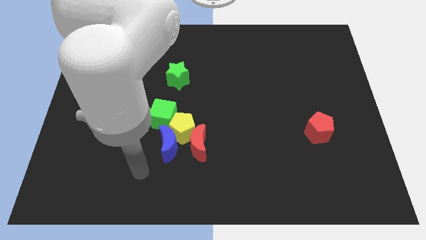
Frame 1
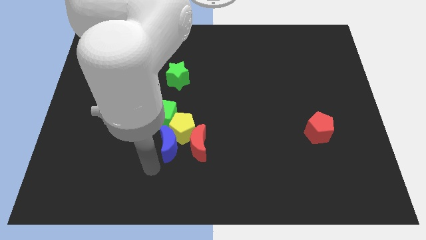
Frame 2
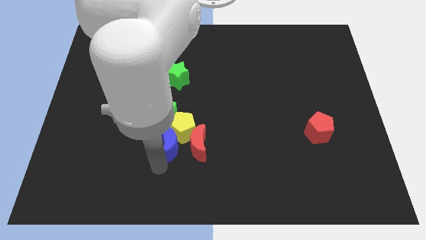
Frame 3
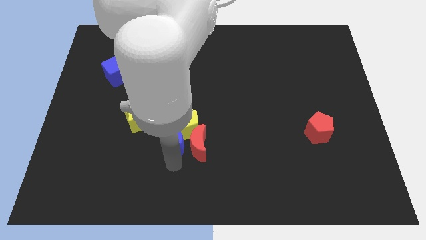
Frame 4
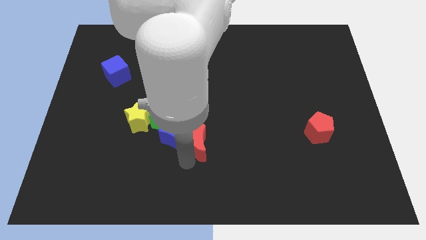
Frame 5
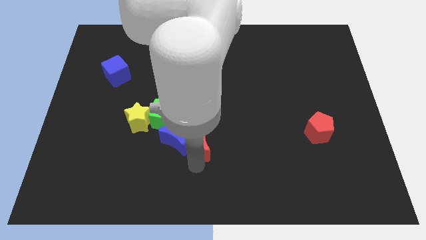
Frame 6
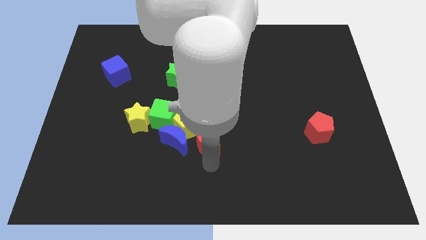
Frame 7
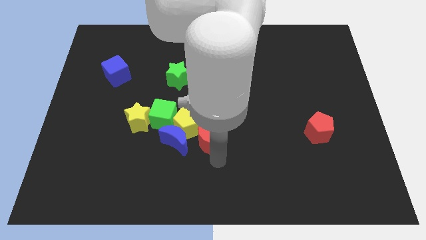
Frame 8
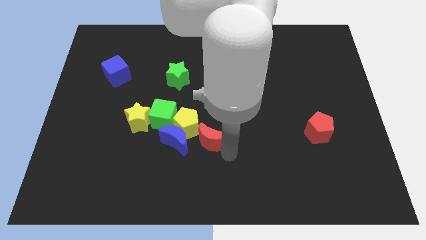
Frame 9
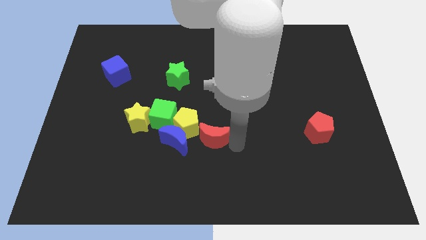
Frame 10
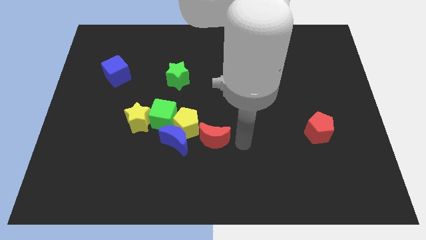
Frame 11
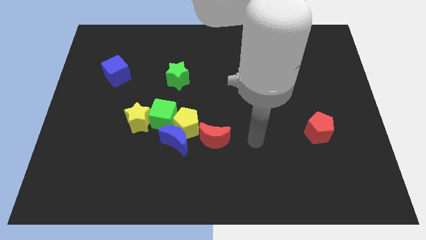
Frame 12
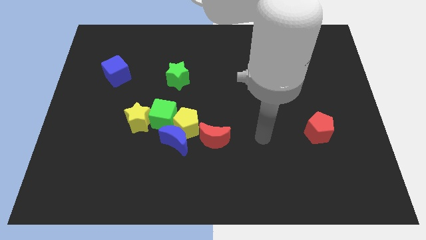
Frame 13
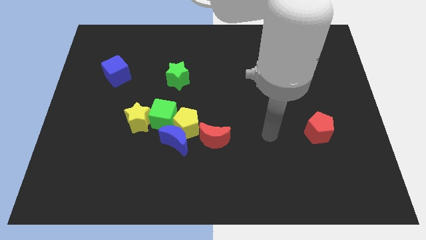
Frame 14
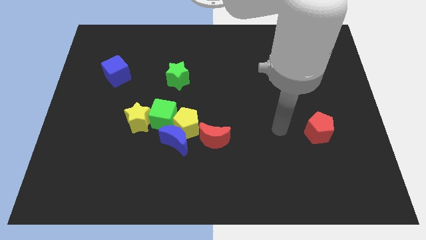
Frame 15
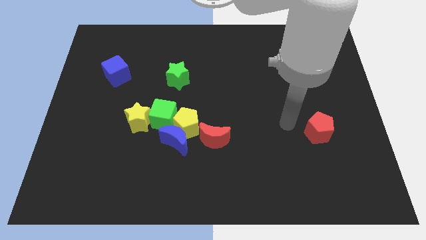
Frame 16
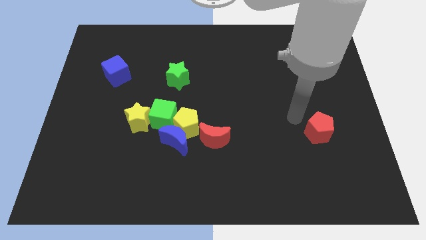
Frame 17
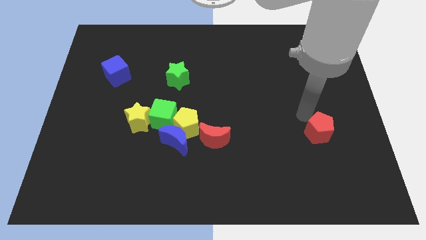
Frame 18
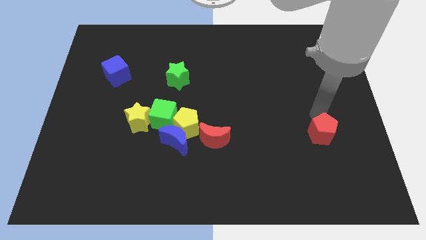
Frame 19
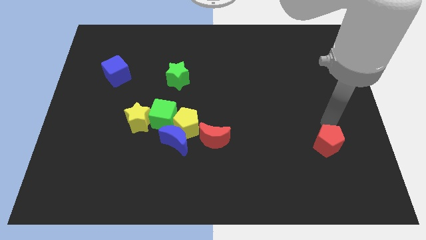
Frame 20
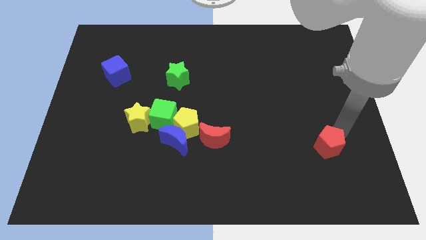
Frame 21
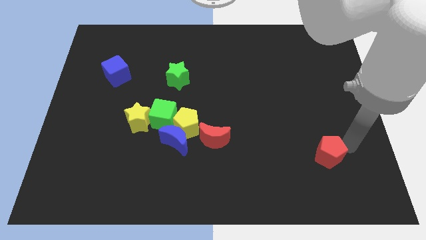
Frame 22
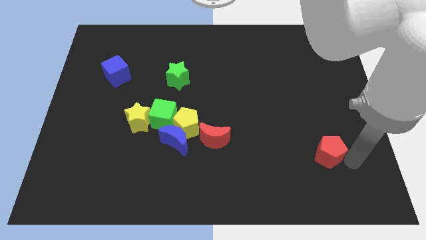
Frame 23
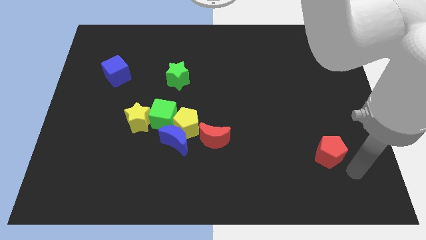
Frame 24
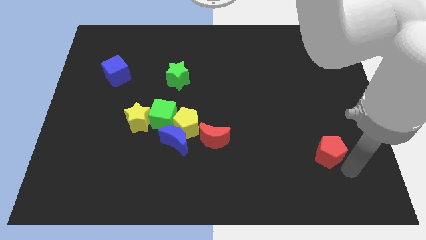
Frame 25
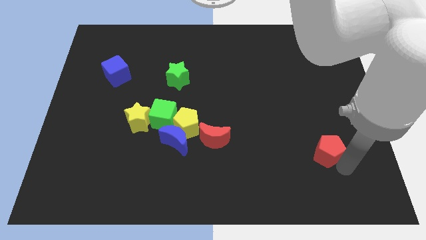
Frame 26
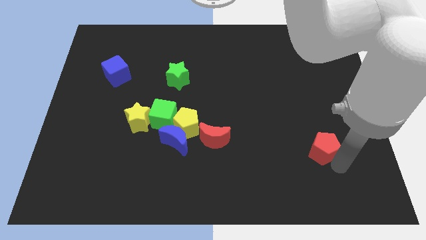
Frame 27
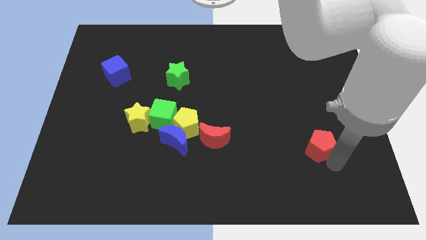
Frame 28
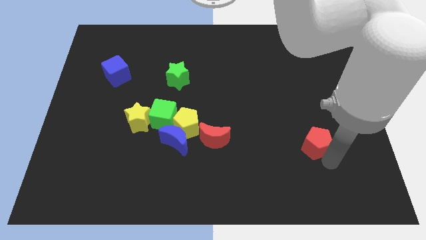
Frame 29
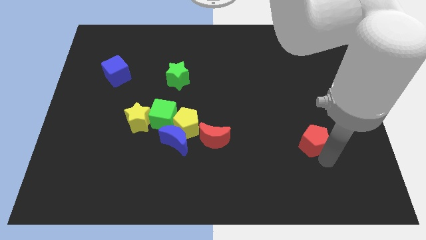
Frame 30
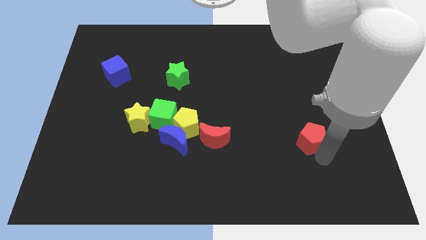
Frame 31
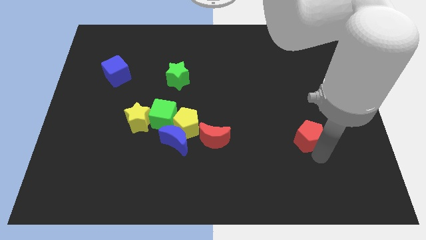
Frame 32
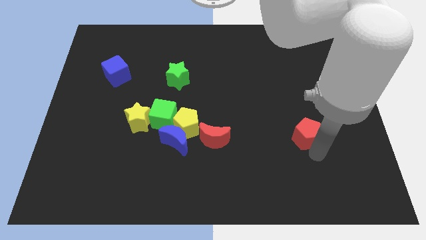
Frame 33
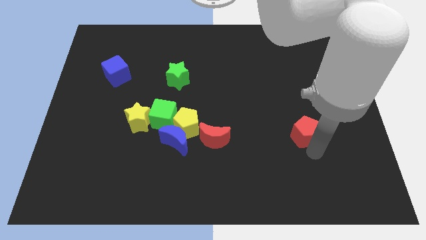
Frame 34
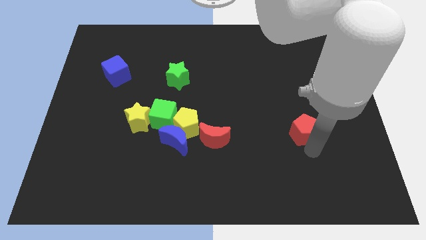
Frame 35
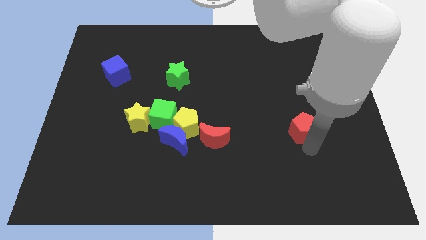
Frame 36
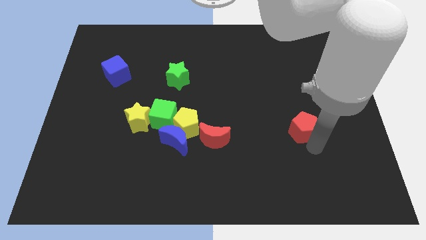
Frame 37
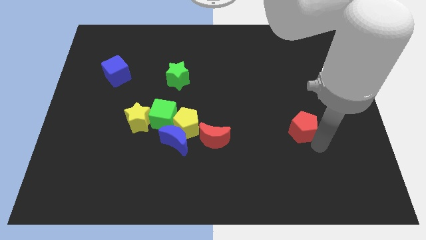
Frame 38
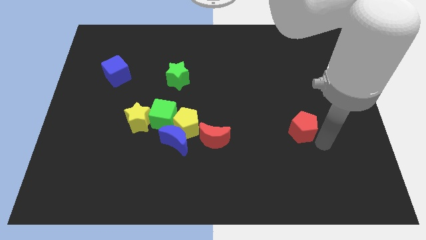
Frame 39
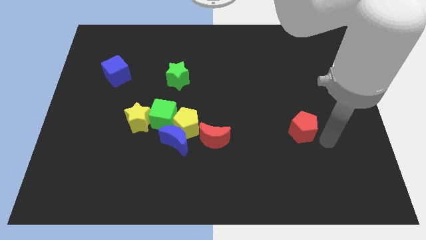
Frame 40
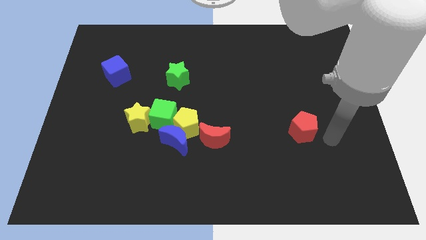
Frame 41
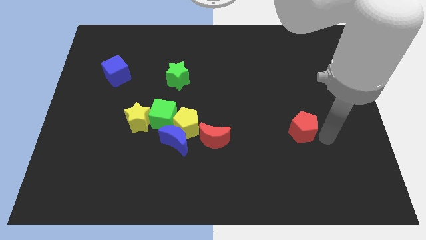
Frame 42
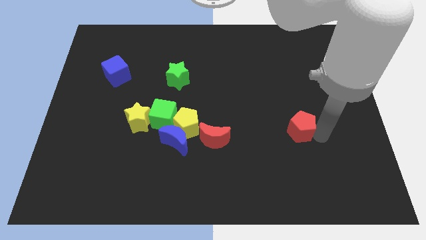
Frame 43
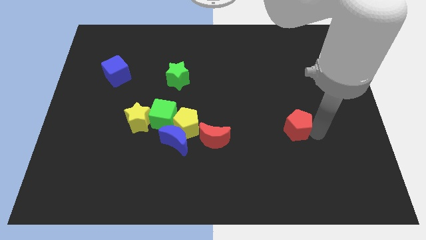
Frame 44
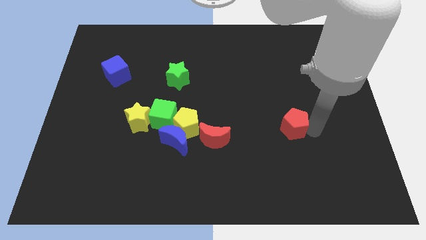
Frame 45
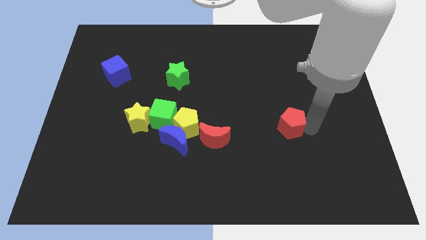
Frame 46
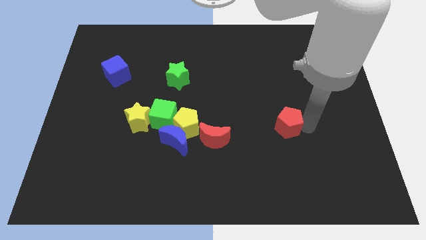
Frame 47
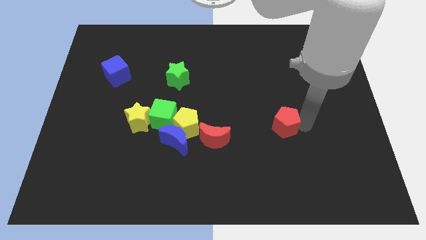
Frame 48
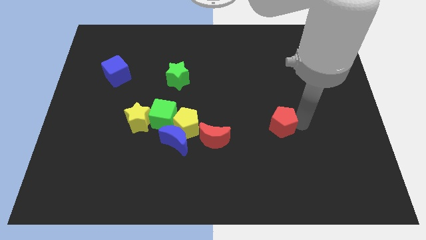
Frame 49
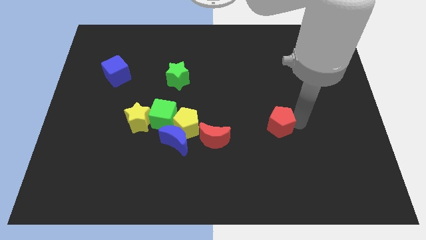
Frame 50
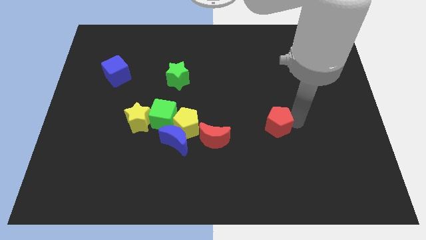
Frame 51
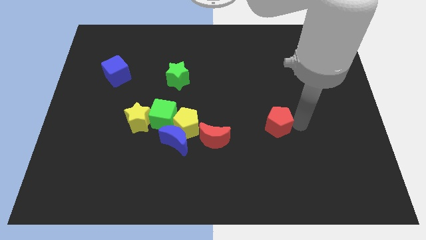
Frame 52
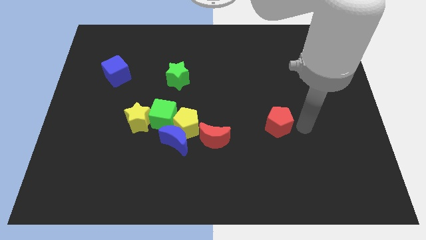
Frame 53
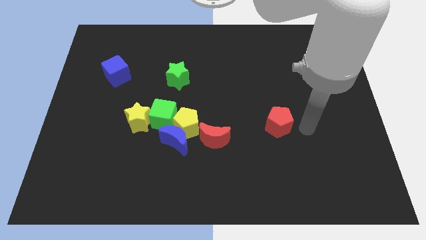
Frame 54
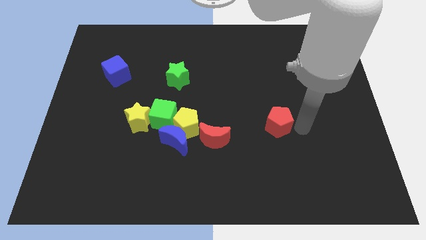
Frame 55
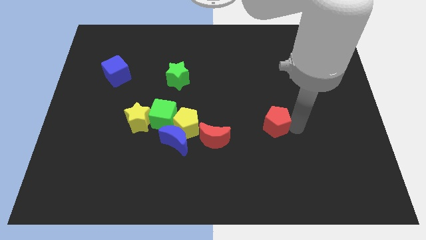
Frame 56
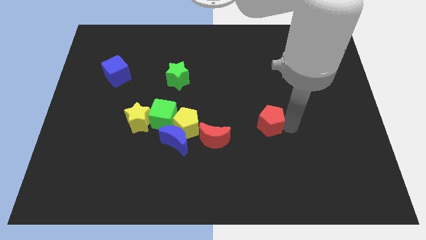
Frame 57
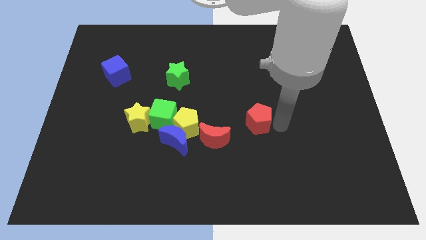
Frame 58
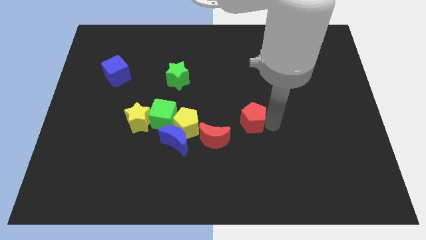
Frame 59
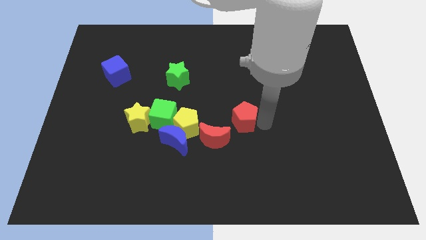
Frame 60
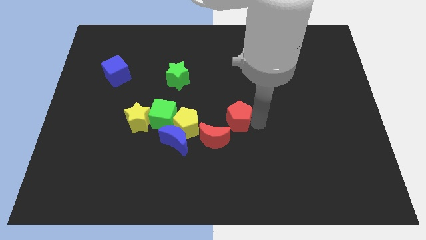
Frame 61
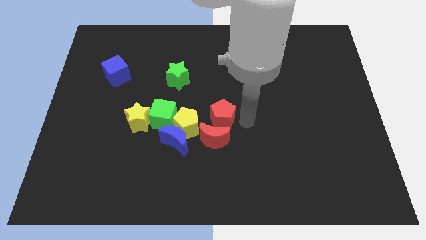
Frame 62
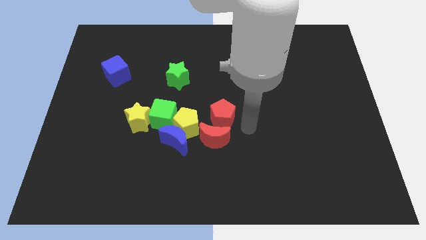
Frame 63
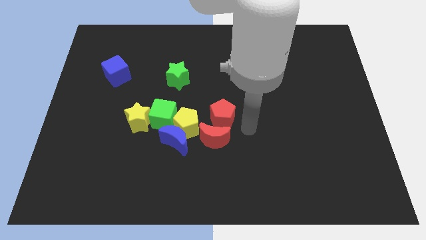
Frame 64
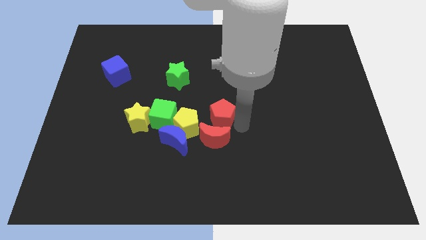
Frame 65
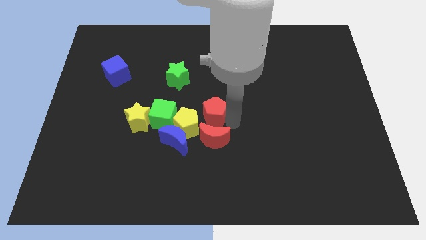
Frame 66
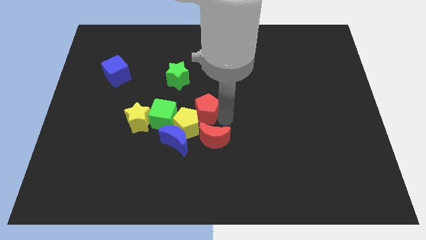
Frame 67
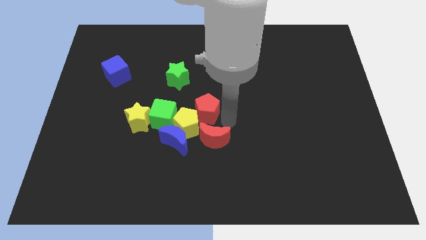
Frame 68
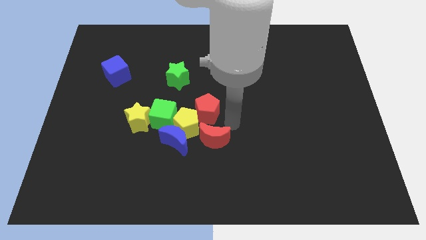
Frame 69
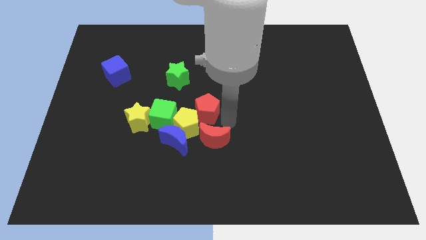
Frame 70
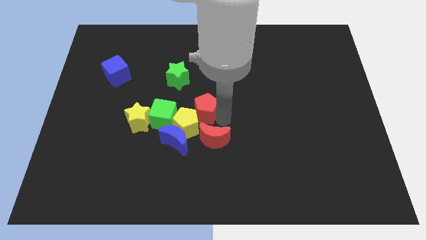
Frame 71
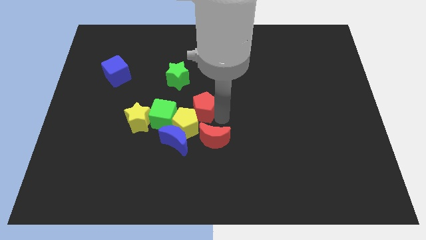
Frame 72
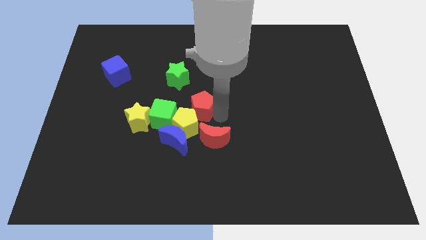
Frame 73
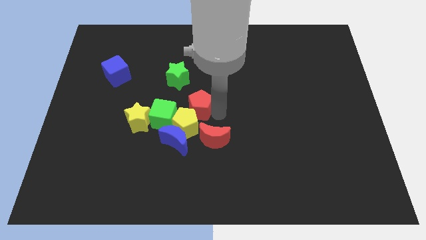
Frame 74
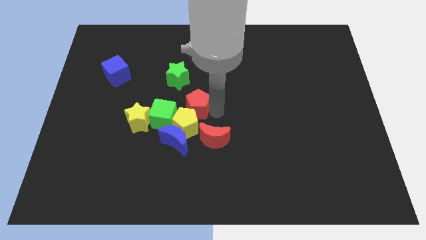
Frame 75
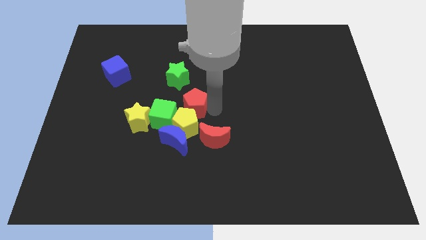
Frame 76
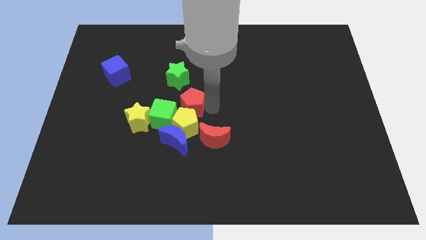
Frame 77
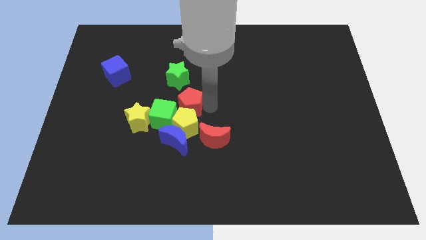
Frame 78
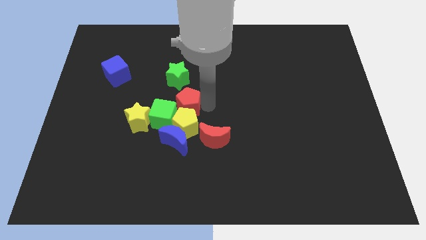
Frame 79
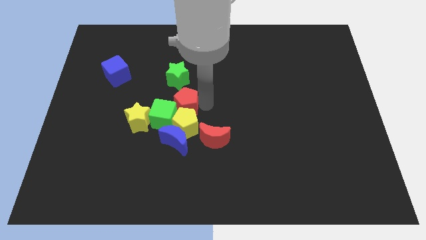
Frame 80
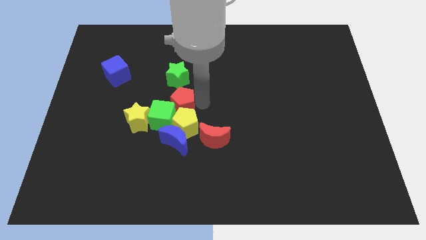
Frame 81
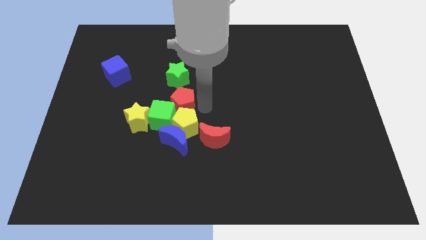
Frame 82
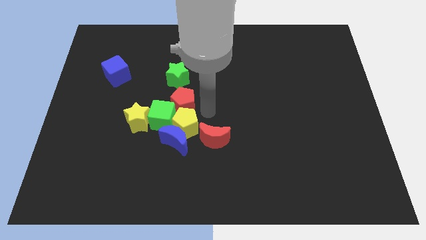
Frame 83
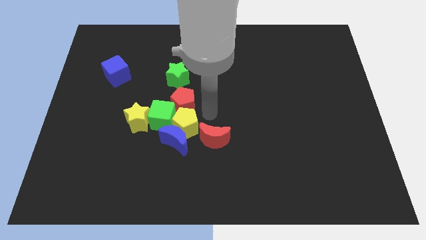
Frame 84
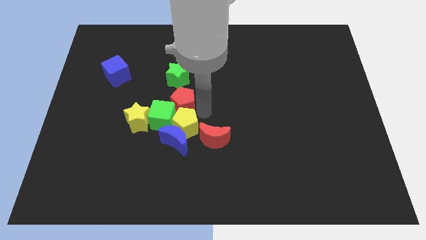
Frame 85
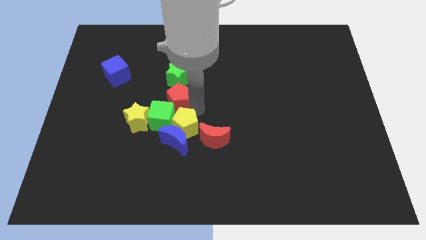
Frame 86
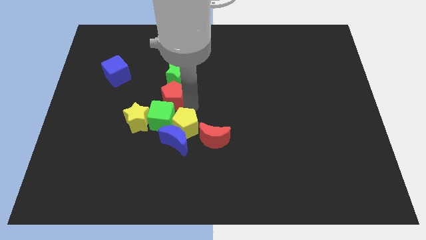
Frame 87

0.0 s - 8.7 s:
move the red pentagon to the bottom left side of the green star
